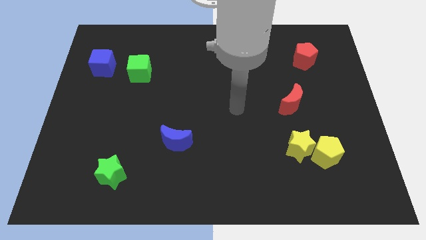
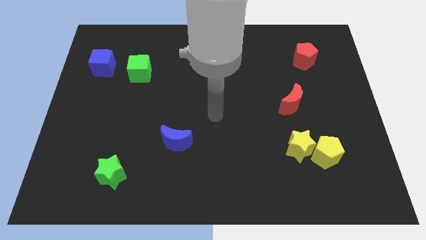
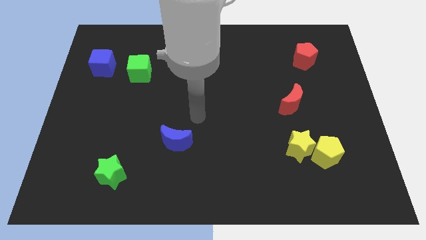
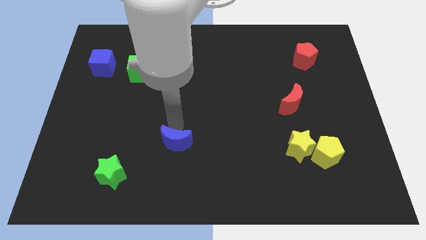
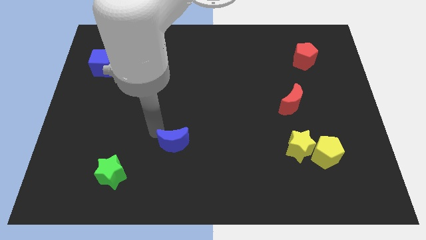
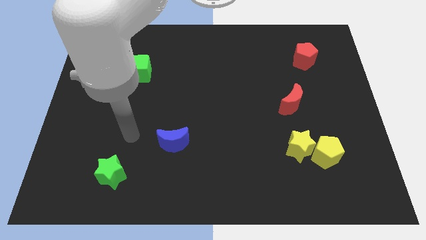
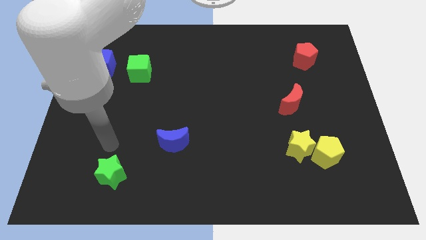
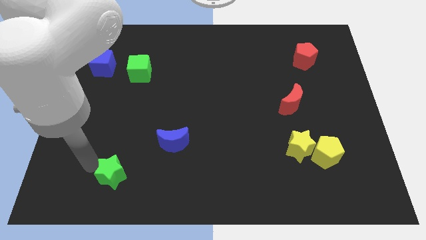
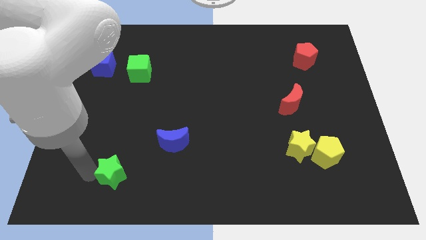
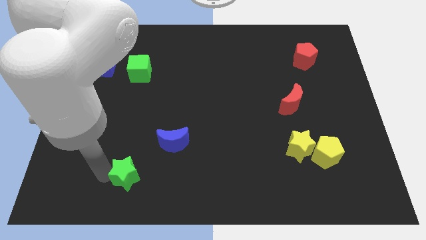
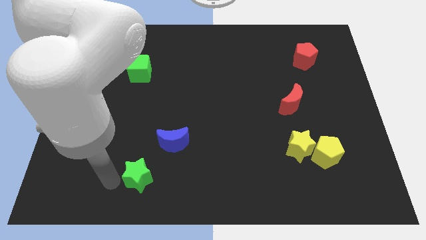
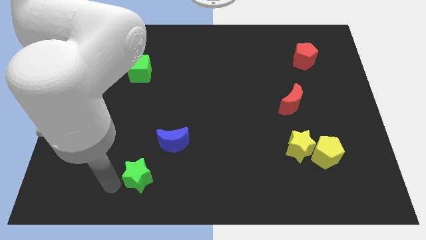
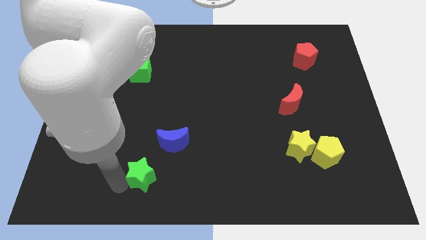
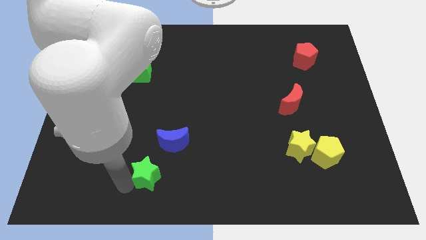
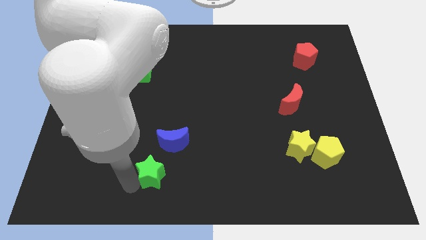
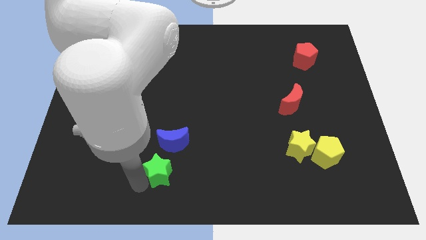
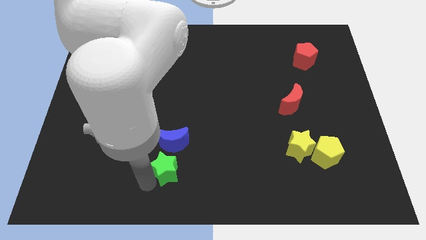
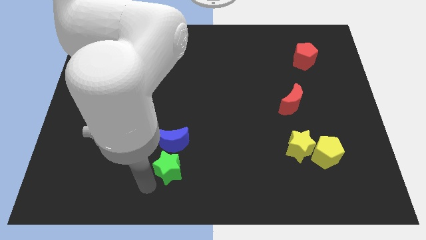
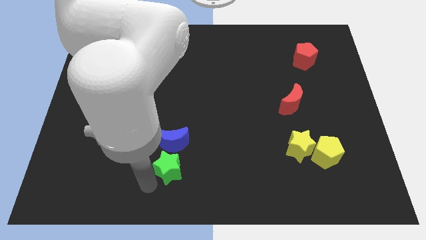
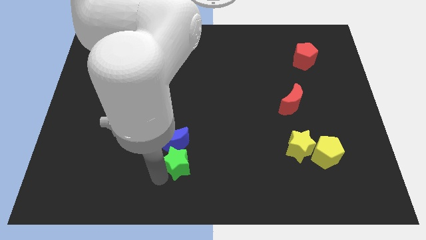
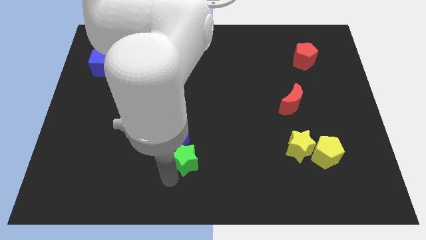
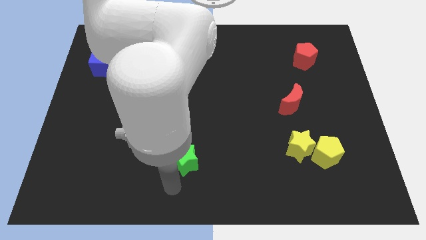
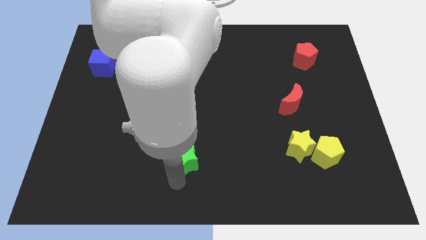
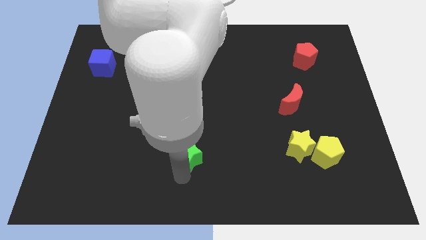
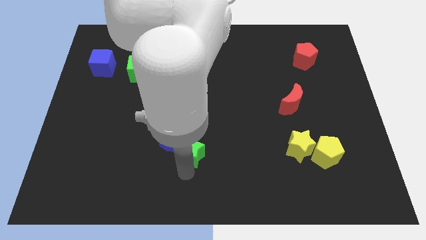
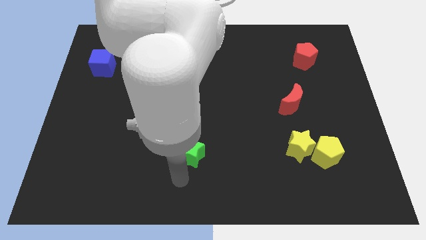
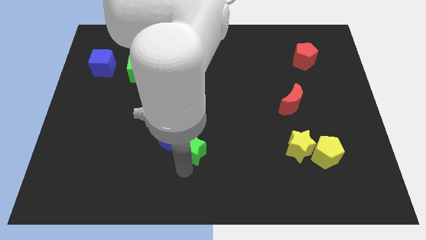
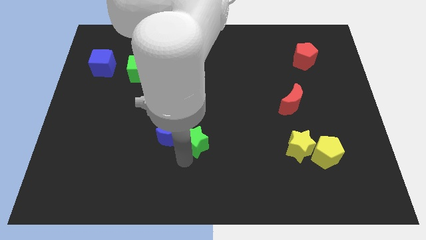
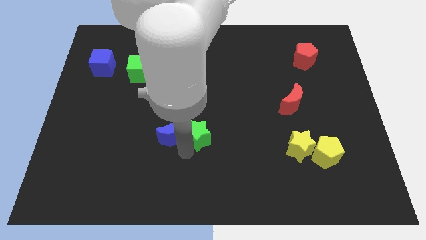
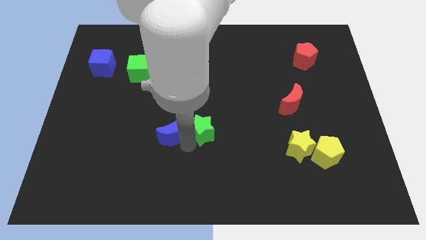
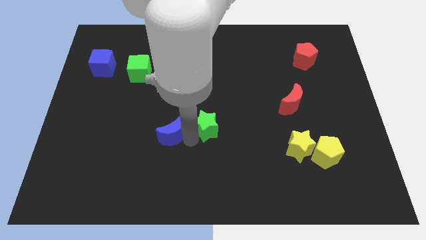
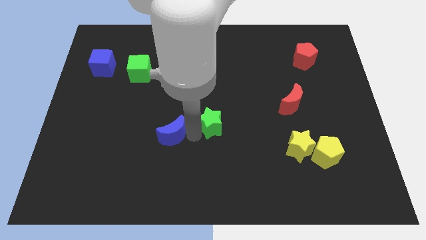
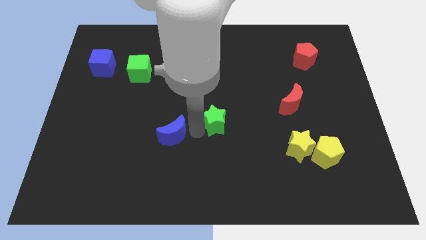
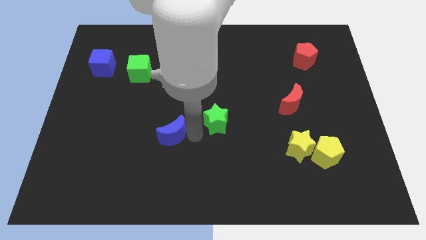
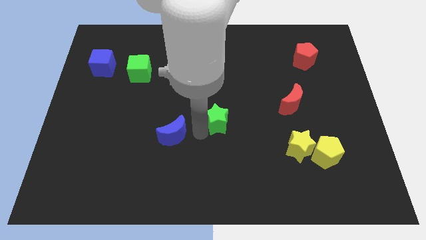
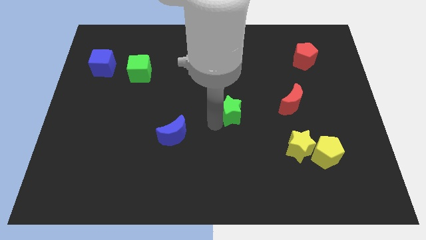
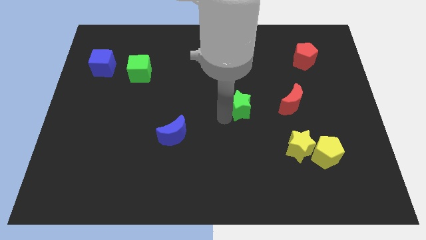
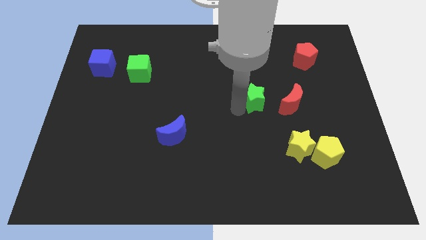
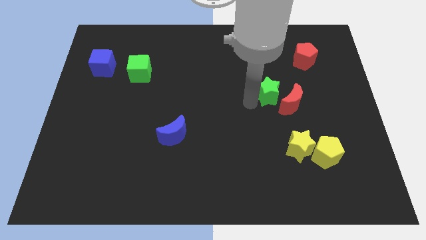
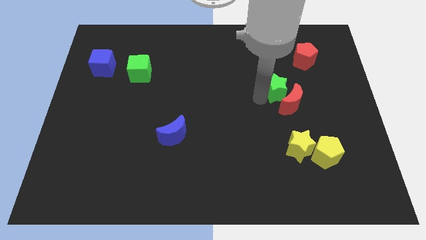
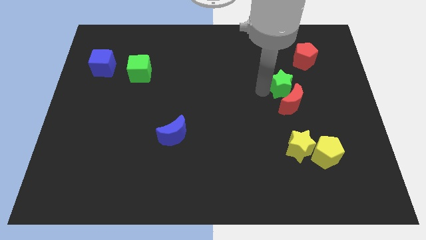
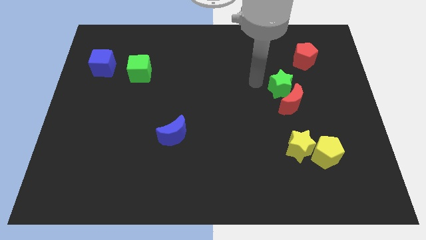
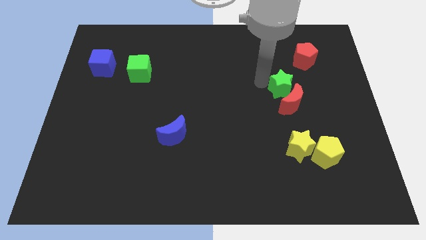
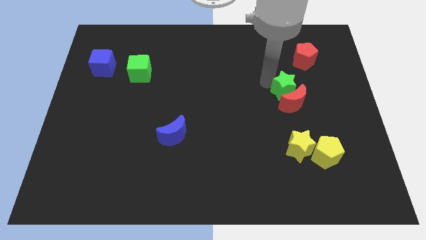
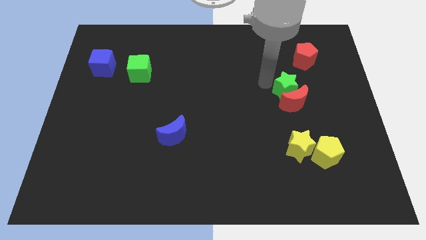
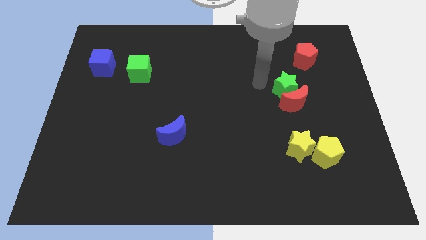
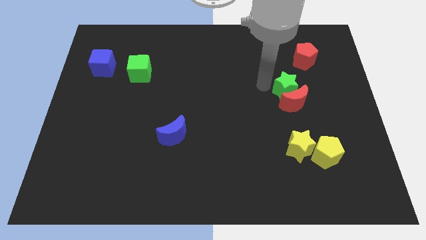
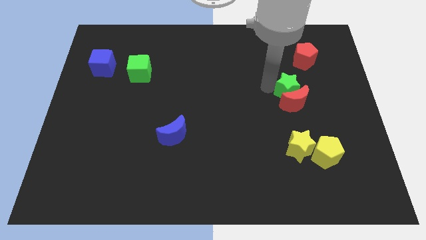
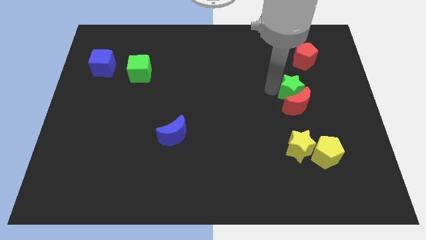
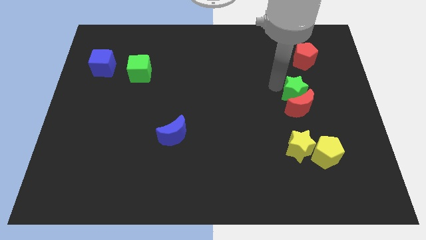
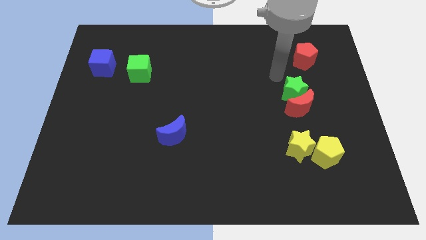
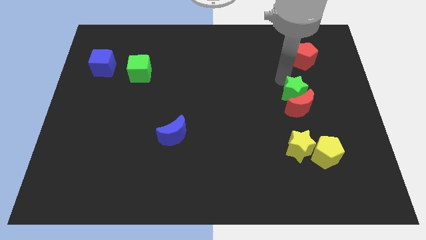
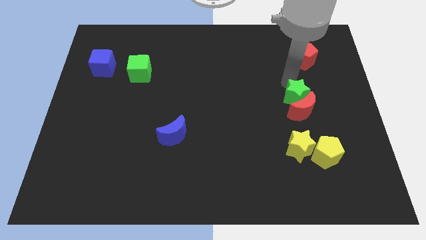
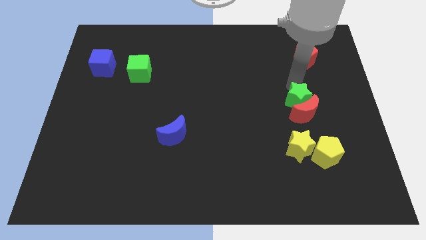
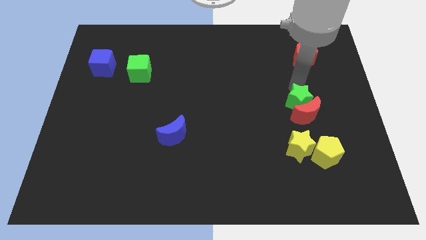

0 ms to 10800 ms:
put the green star above the yellow pentagon

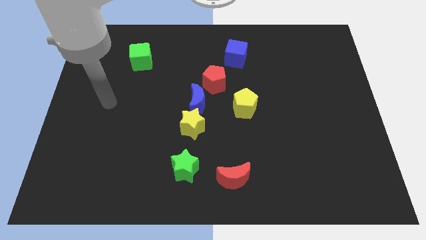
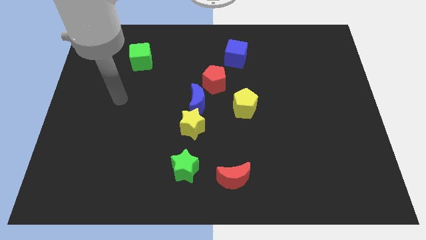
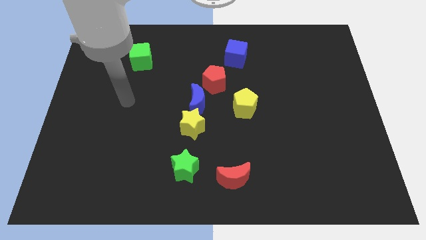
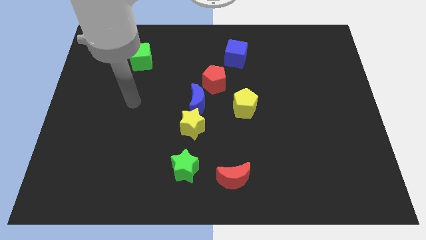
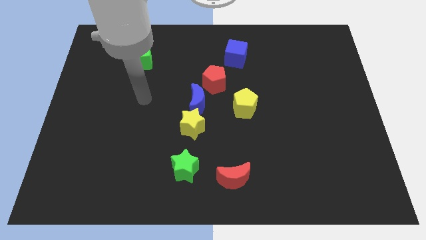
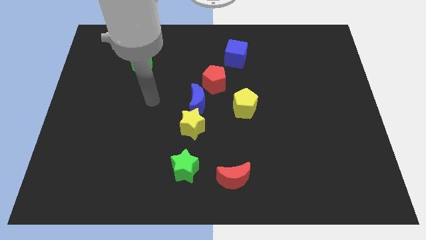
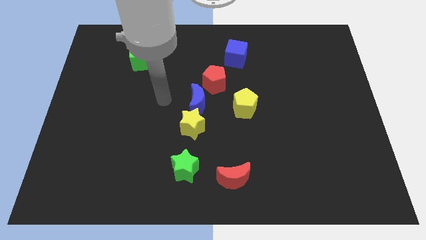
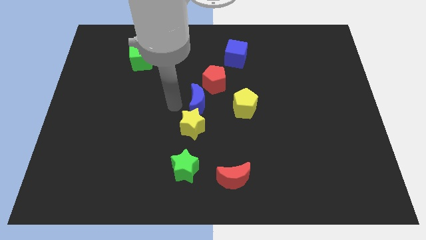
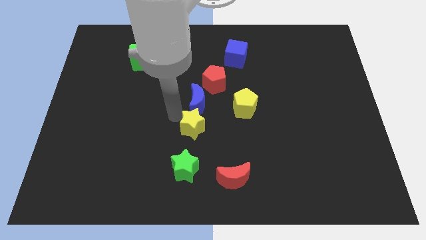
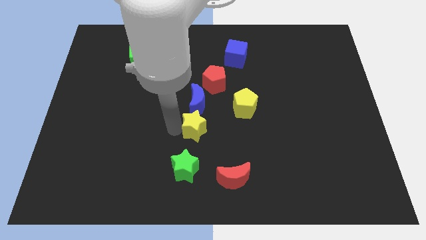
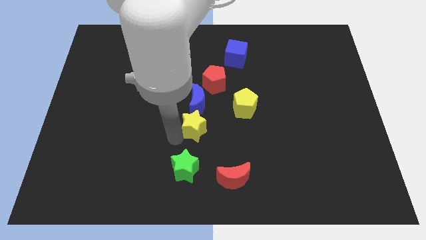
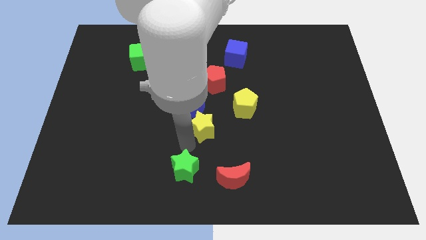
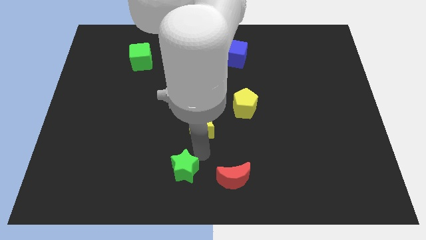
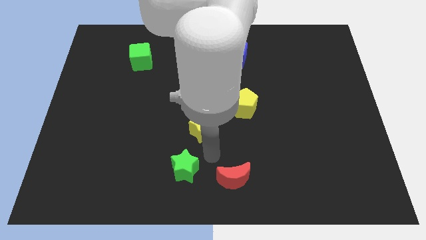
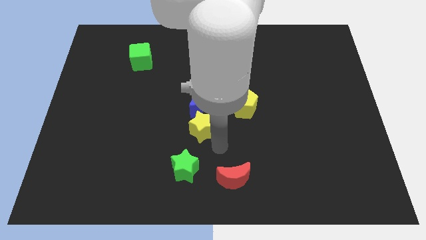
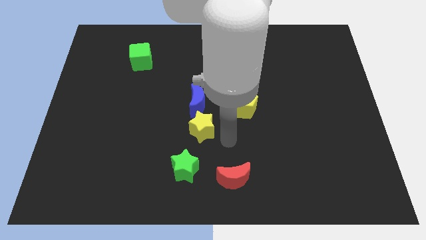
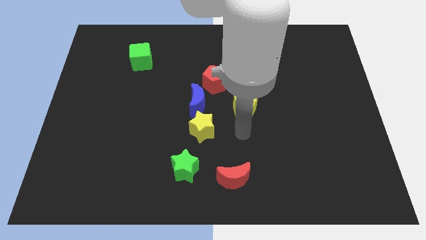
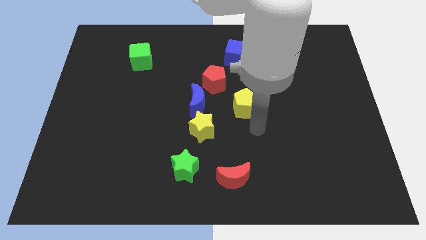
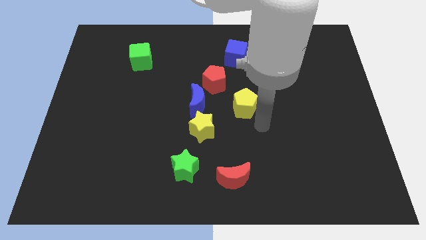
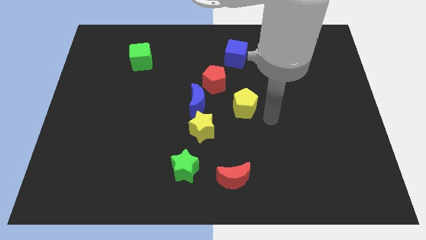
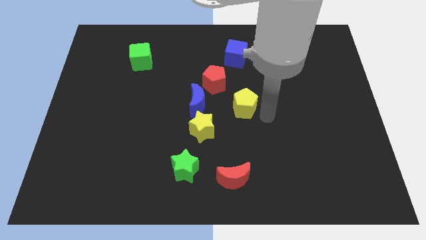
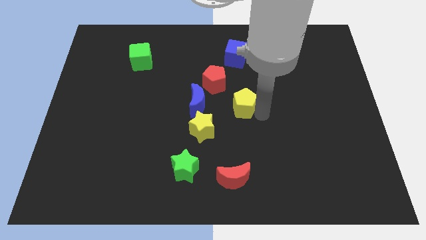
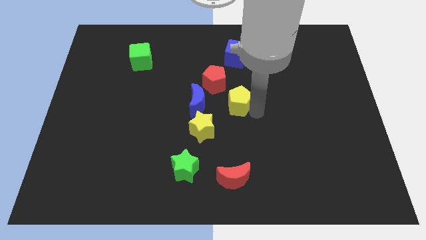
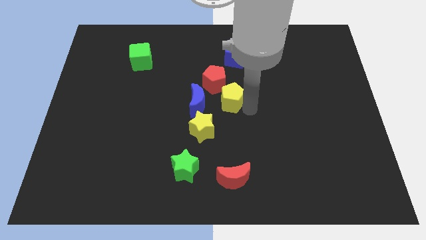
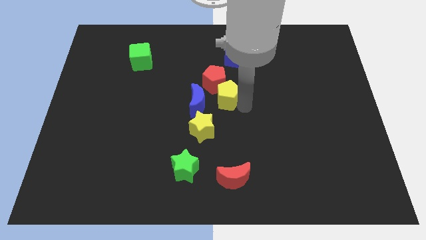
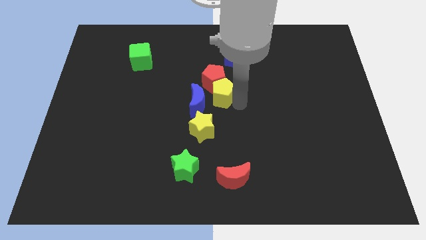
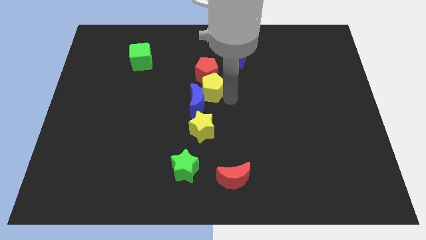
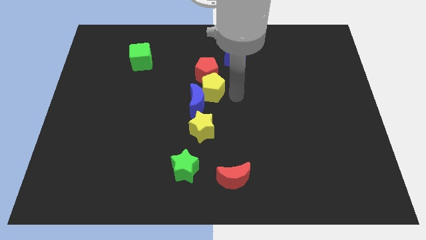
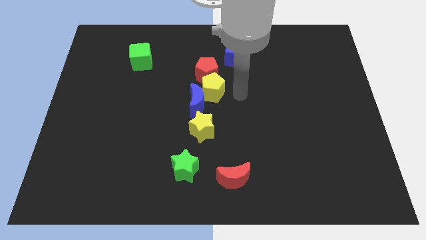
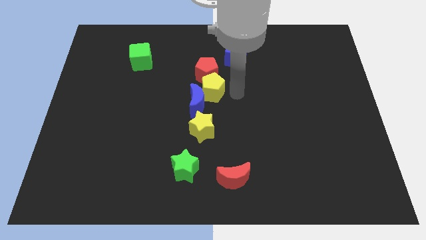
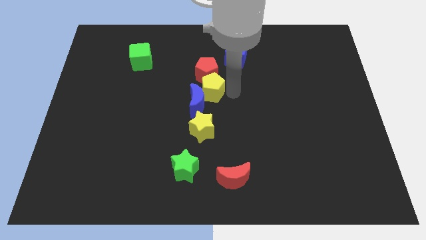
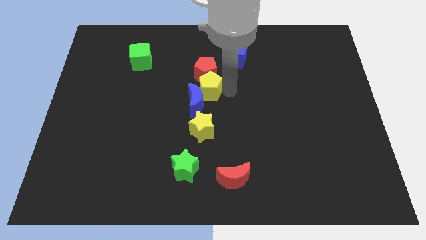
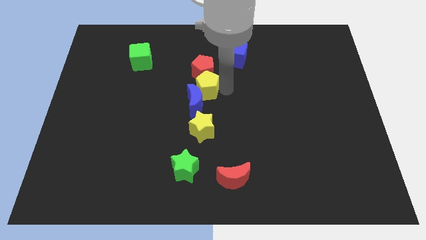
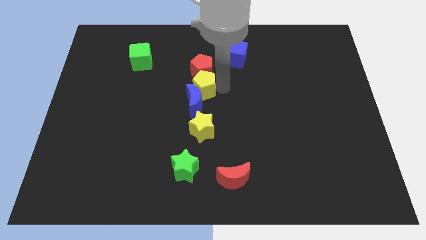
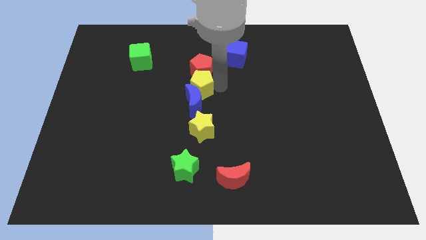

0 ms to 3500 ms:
move the yellow pentagon to the top left of the blue moon
